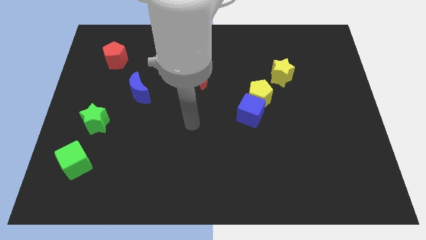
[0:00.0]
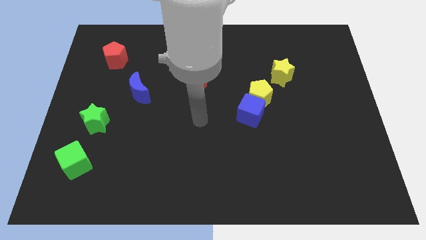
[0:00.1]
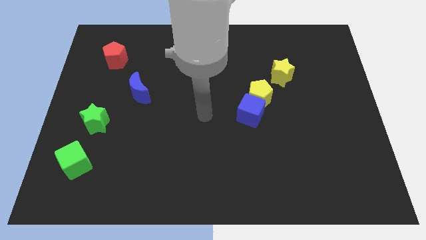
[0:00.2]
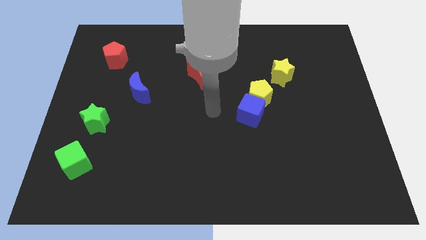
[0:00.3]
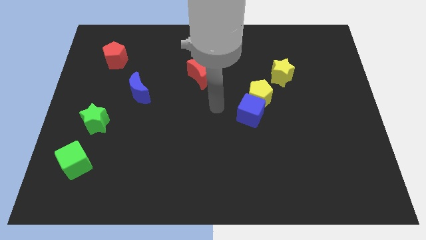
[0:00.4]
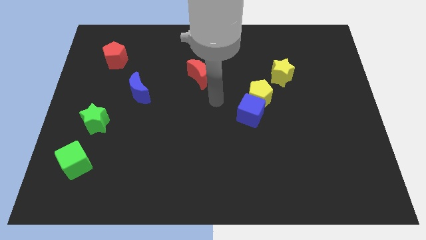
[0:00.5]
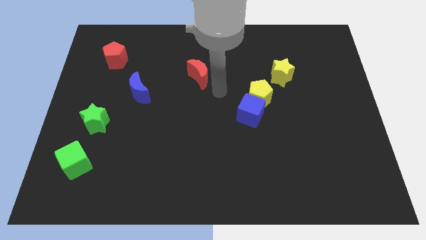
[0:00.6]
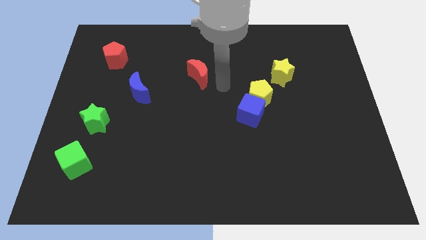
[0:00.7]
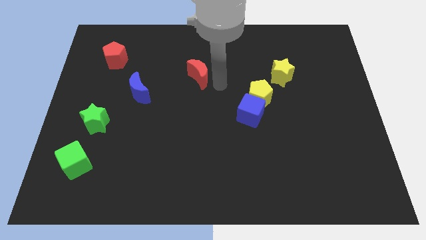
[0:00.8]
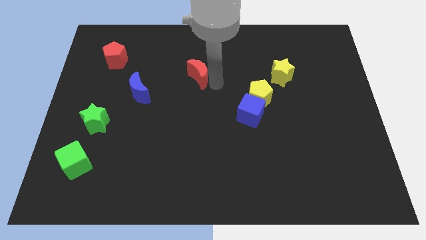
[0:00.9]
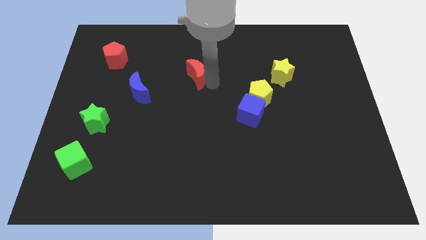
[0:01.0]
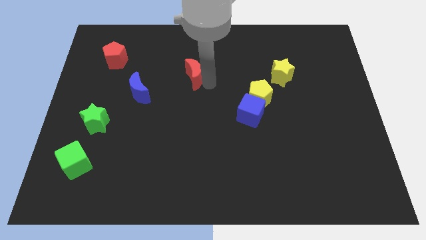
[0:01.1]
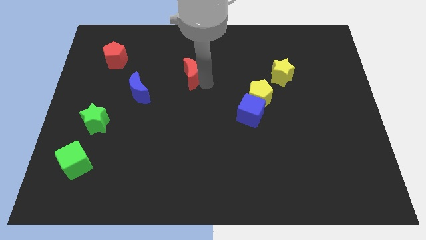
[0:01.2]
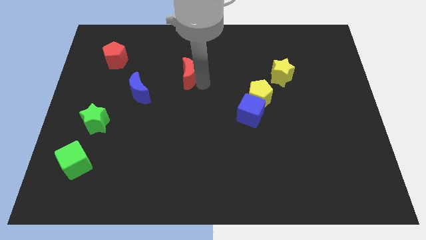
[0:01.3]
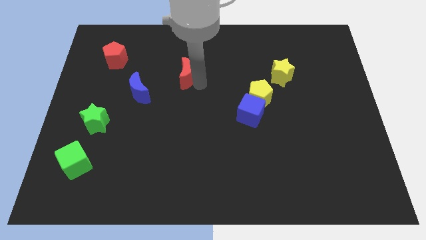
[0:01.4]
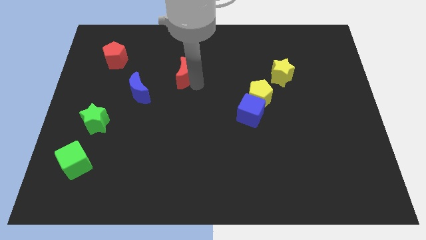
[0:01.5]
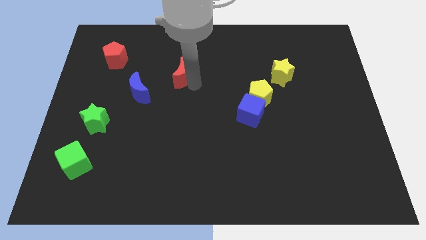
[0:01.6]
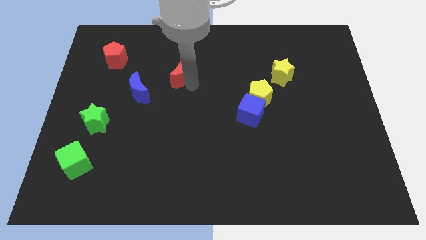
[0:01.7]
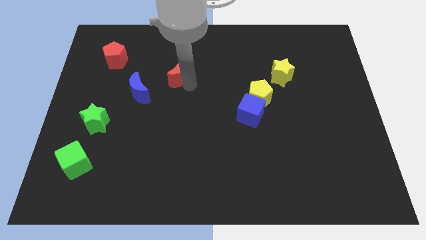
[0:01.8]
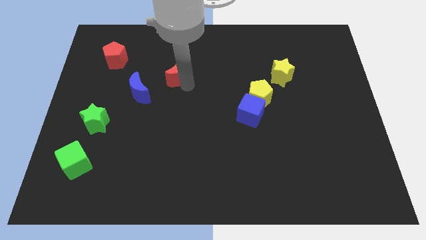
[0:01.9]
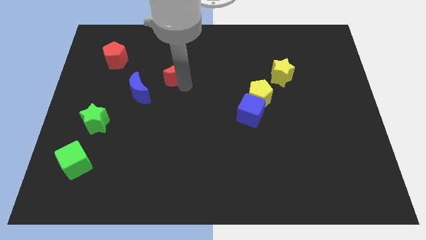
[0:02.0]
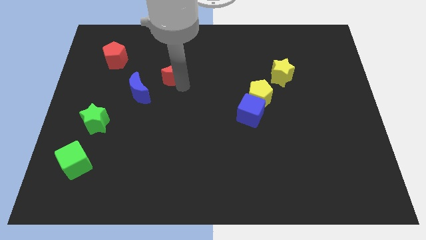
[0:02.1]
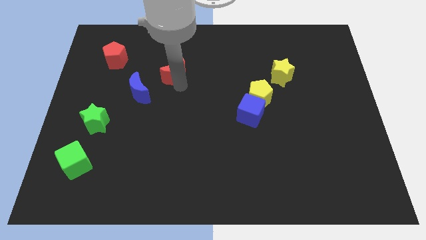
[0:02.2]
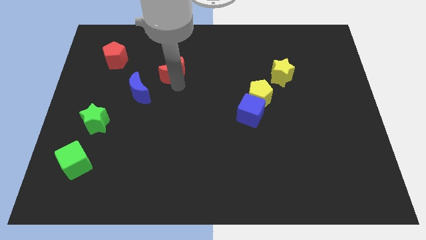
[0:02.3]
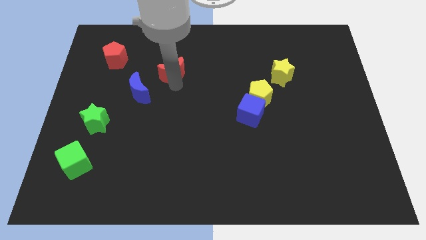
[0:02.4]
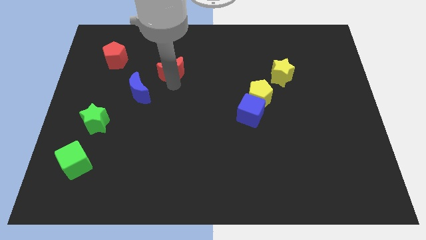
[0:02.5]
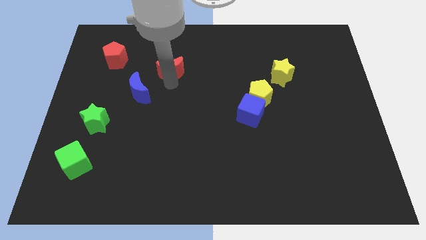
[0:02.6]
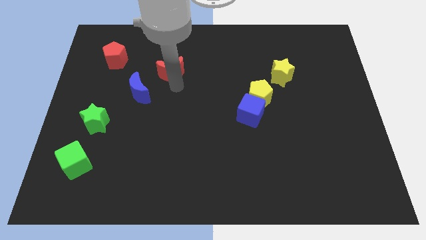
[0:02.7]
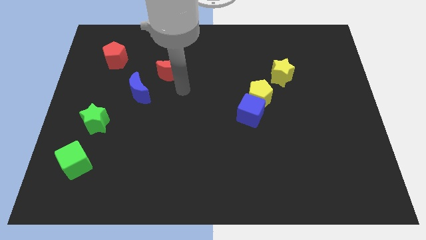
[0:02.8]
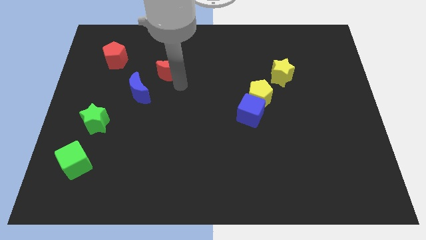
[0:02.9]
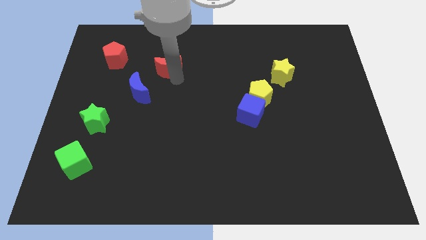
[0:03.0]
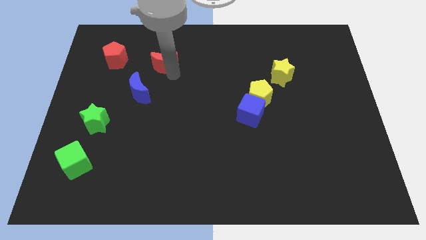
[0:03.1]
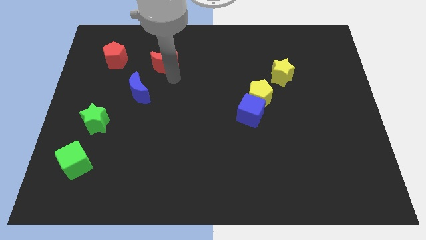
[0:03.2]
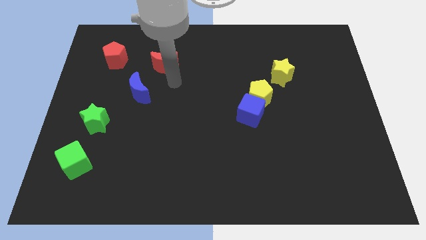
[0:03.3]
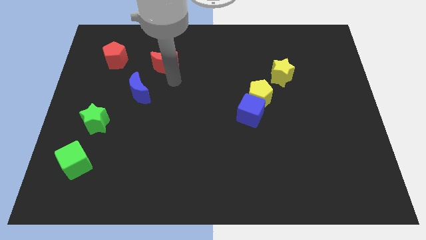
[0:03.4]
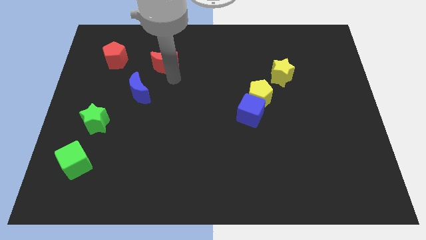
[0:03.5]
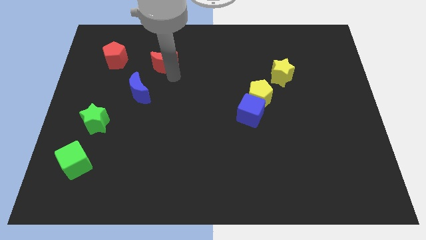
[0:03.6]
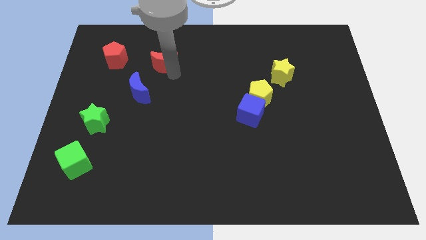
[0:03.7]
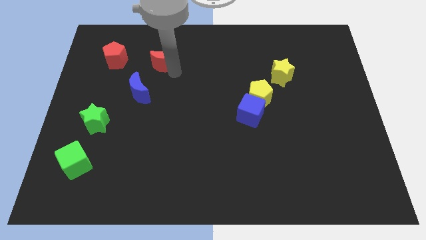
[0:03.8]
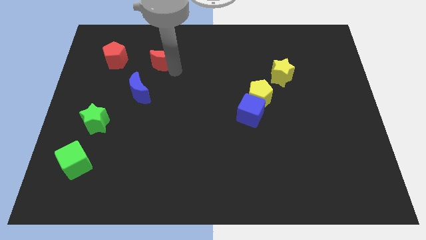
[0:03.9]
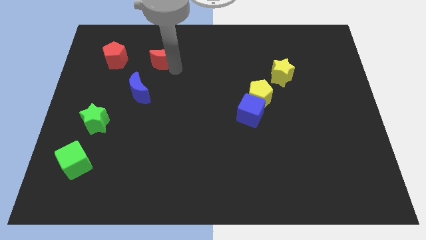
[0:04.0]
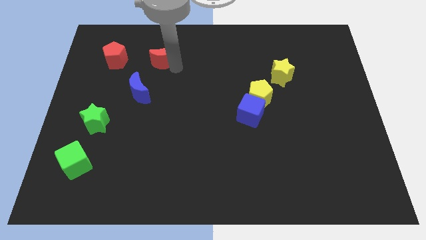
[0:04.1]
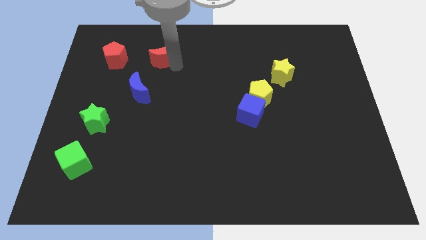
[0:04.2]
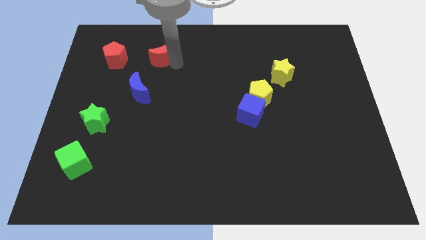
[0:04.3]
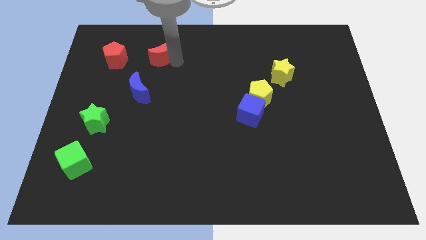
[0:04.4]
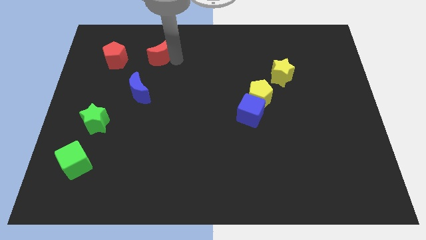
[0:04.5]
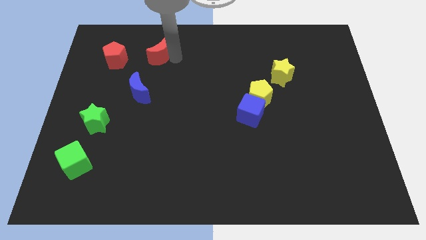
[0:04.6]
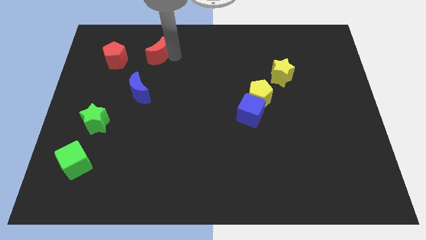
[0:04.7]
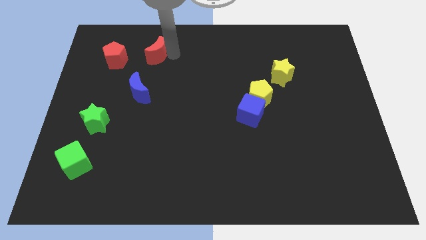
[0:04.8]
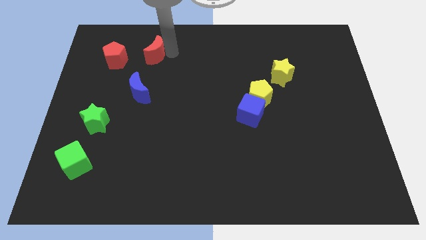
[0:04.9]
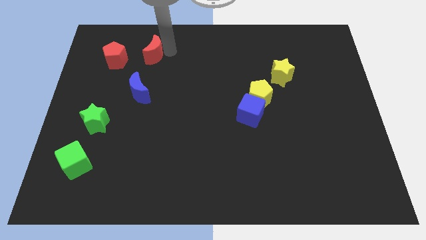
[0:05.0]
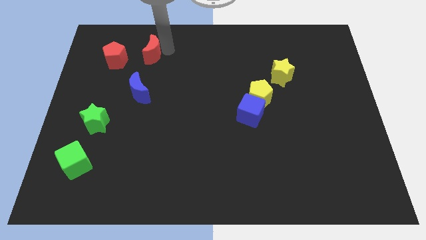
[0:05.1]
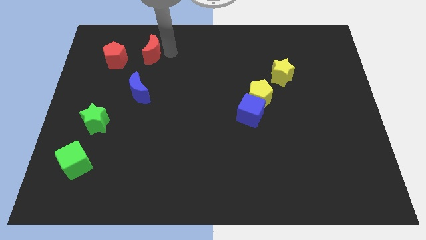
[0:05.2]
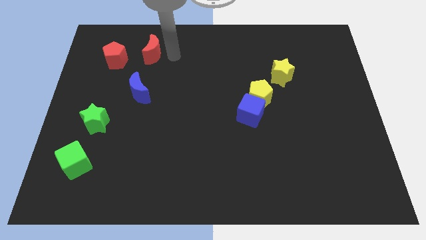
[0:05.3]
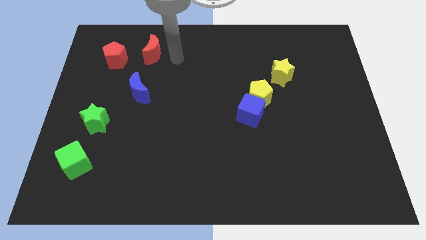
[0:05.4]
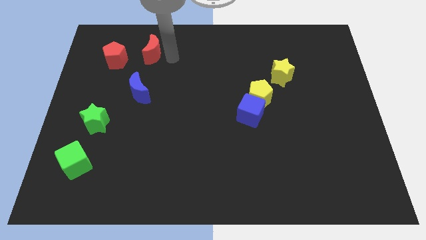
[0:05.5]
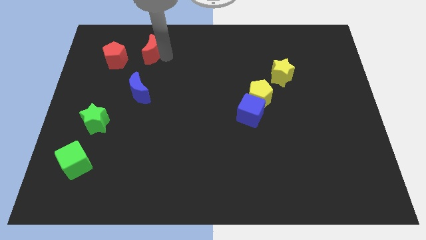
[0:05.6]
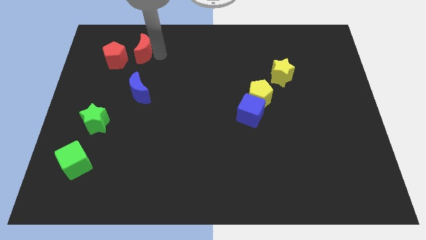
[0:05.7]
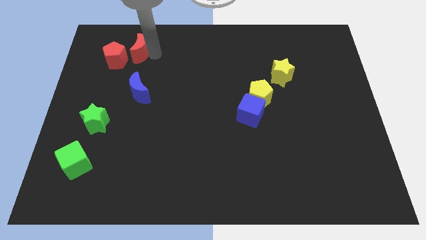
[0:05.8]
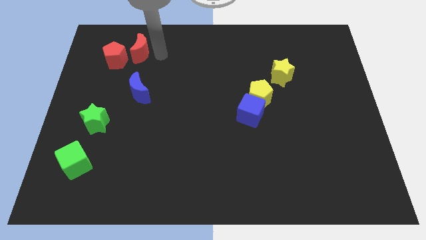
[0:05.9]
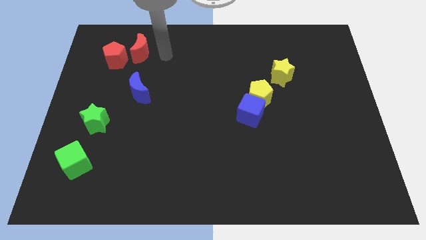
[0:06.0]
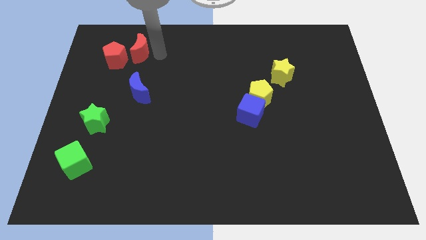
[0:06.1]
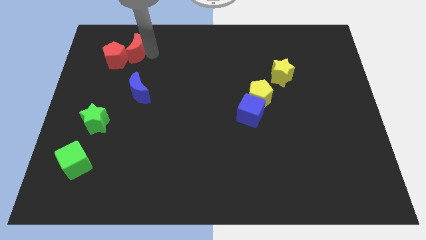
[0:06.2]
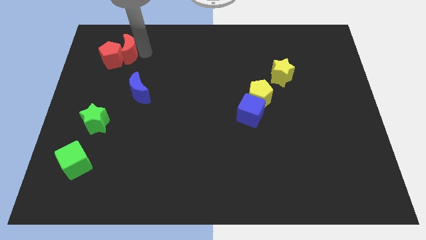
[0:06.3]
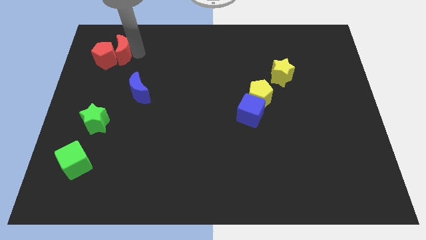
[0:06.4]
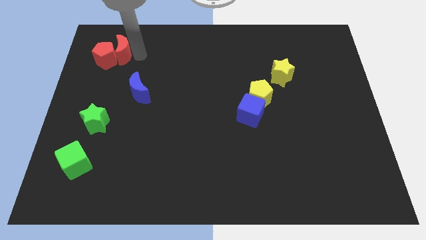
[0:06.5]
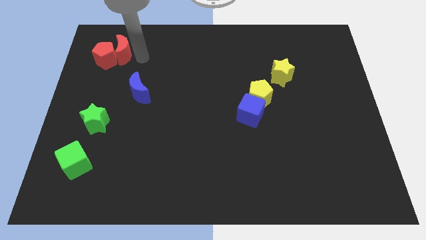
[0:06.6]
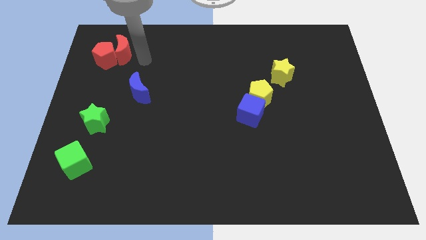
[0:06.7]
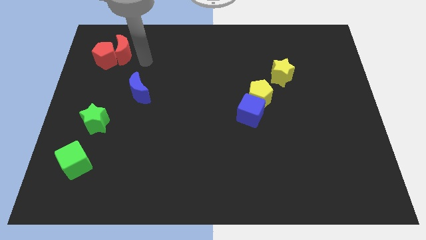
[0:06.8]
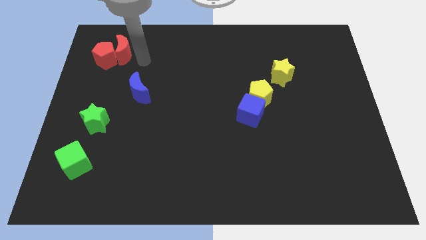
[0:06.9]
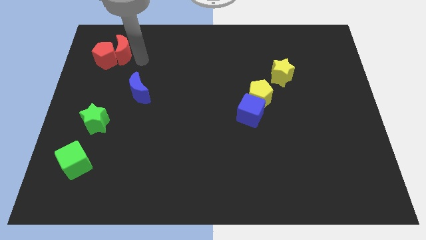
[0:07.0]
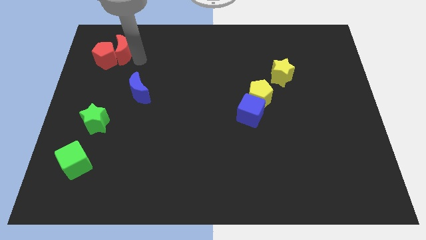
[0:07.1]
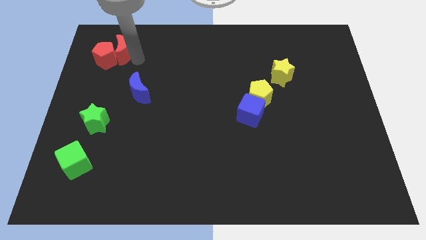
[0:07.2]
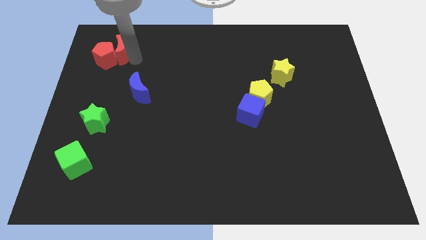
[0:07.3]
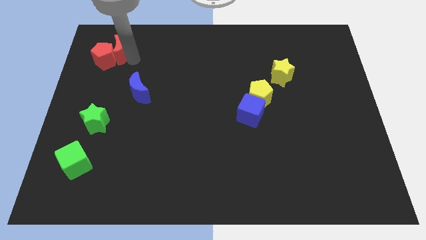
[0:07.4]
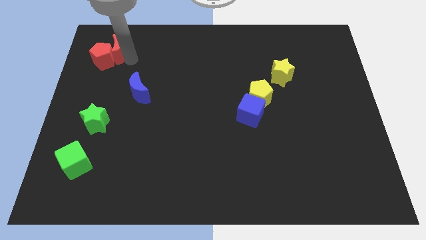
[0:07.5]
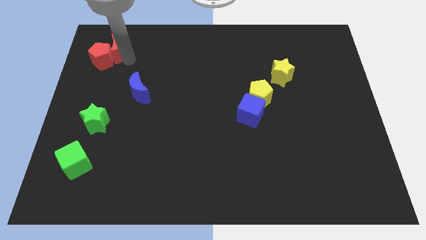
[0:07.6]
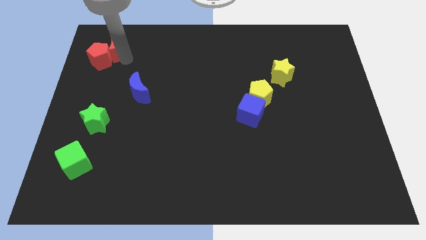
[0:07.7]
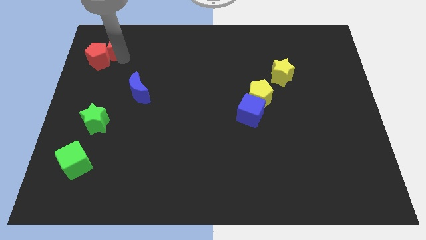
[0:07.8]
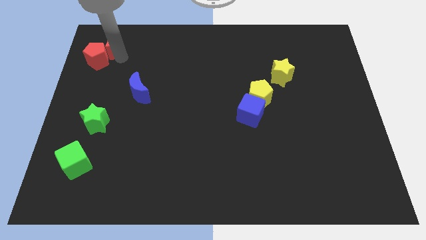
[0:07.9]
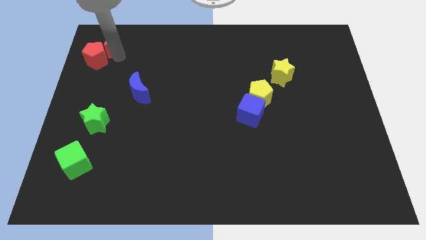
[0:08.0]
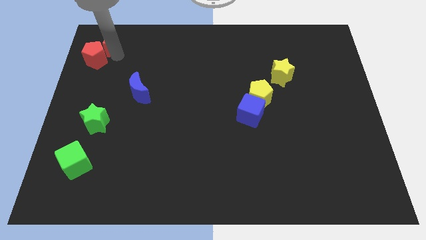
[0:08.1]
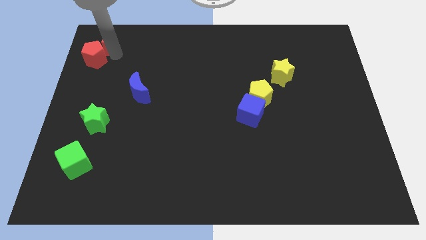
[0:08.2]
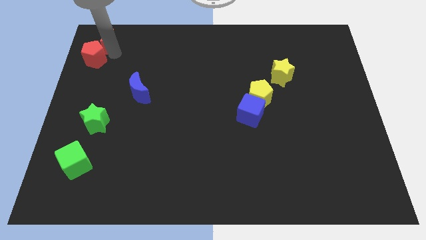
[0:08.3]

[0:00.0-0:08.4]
put the red moon to the upper left corner
